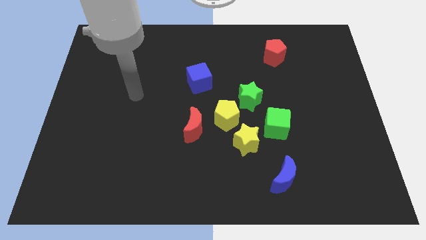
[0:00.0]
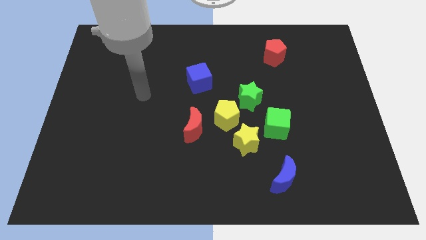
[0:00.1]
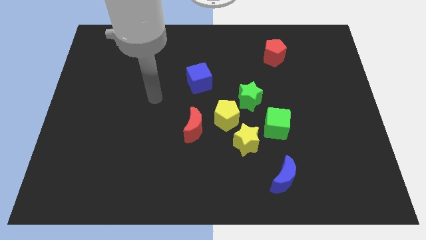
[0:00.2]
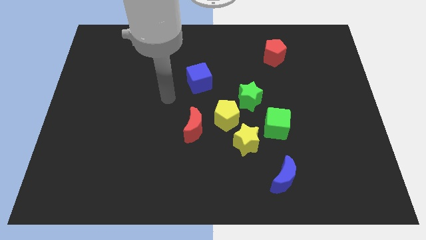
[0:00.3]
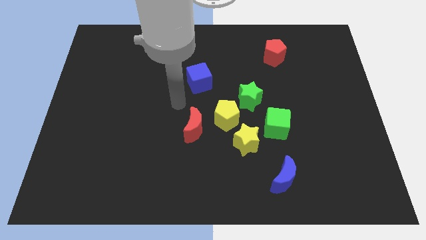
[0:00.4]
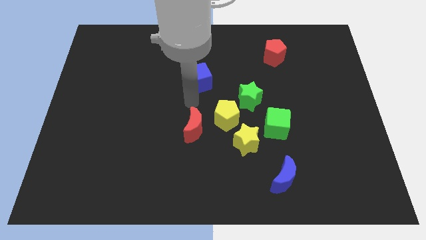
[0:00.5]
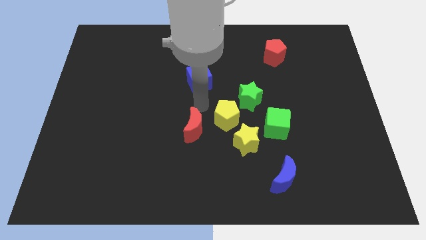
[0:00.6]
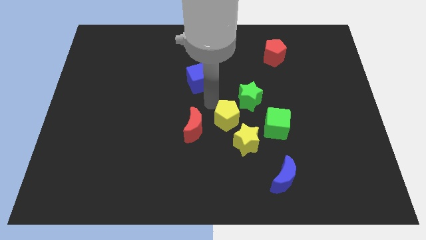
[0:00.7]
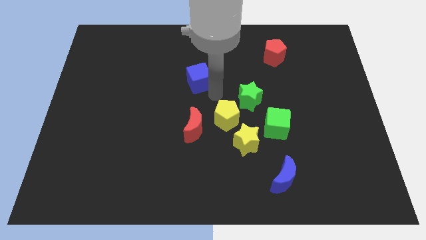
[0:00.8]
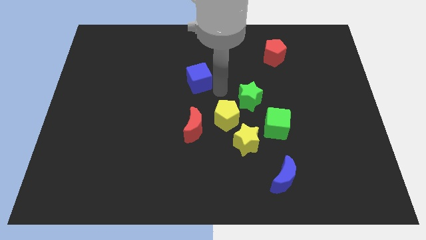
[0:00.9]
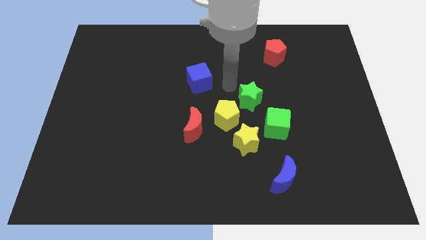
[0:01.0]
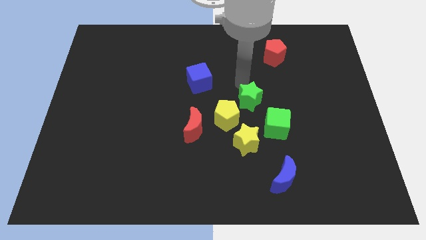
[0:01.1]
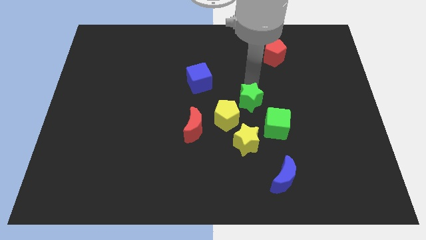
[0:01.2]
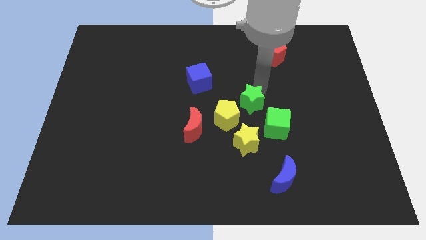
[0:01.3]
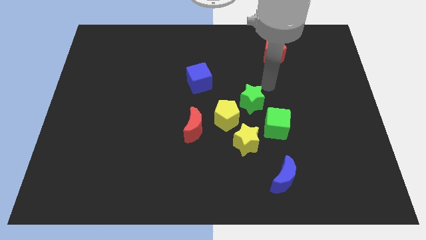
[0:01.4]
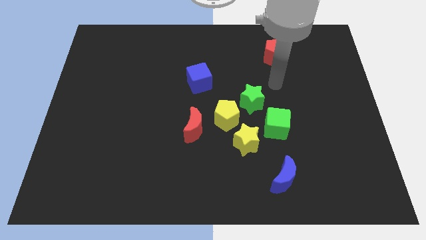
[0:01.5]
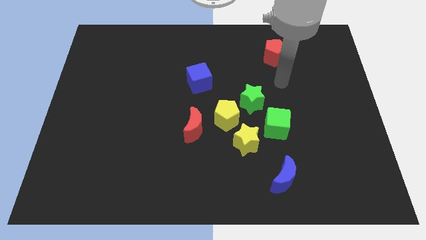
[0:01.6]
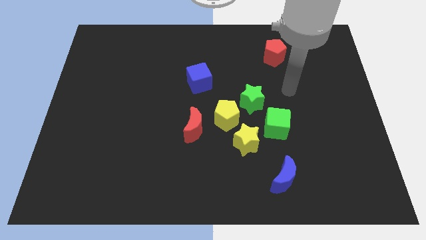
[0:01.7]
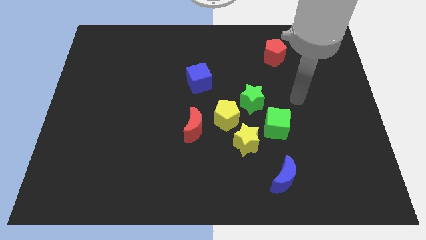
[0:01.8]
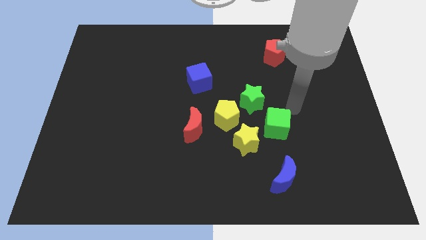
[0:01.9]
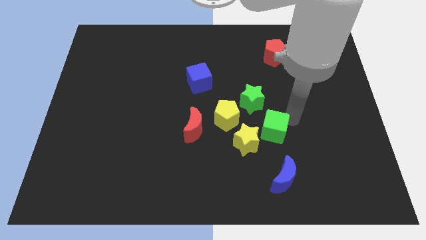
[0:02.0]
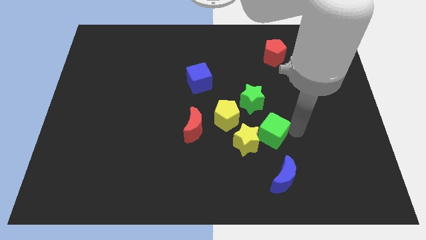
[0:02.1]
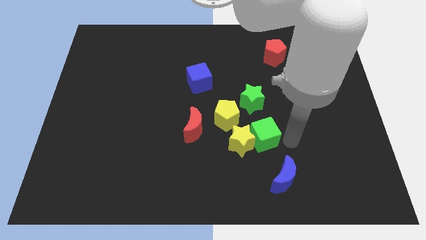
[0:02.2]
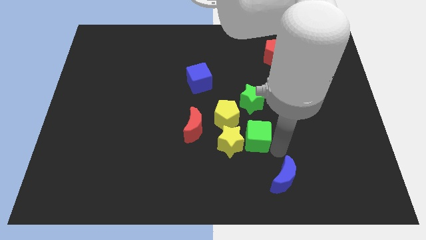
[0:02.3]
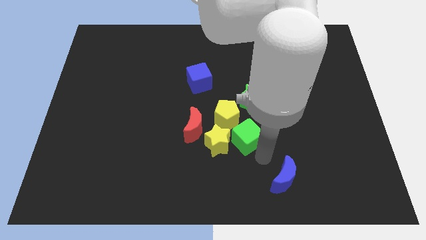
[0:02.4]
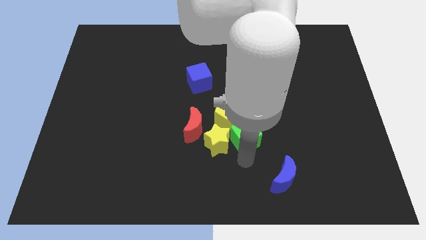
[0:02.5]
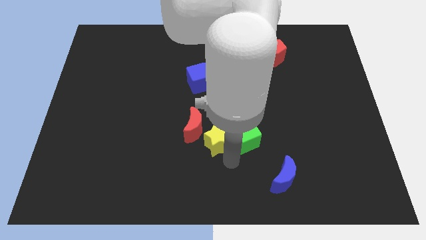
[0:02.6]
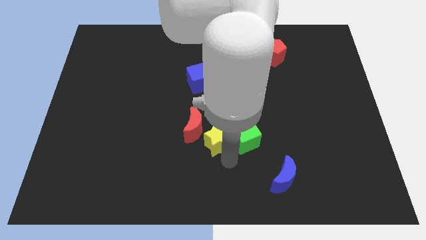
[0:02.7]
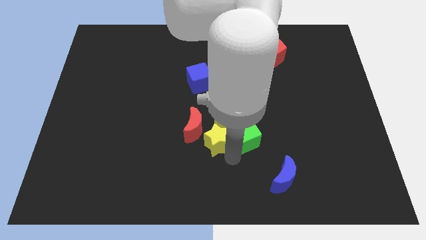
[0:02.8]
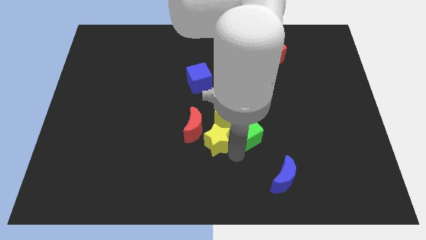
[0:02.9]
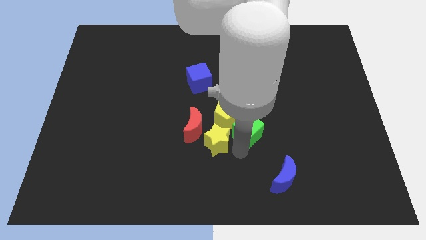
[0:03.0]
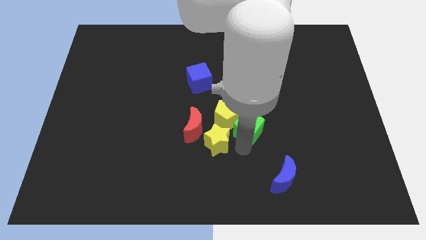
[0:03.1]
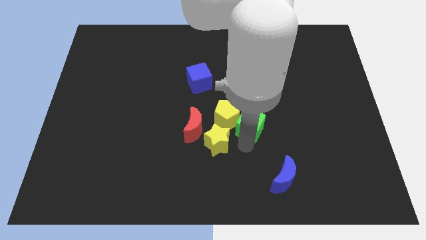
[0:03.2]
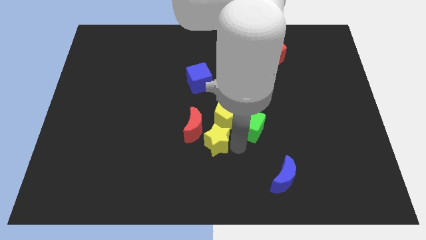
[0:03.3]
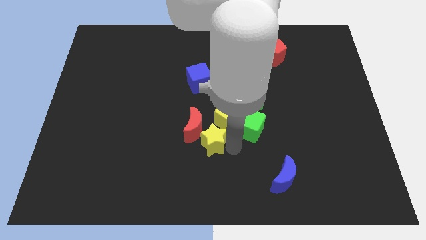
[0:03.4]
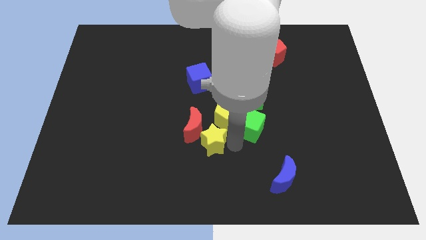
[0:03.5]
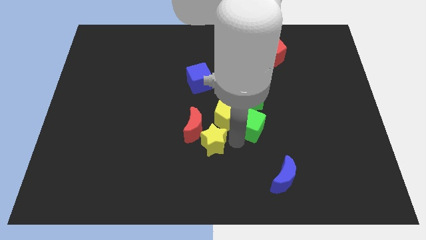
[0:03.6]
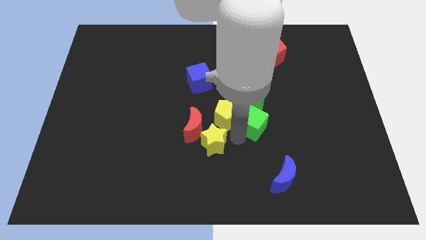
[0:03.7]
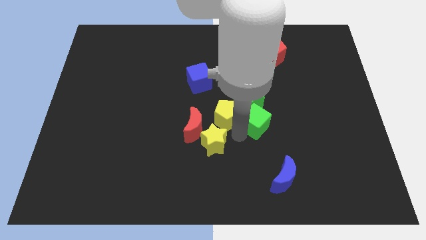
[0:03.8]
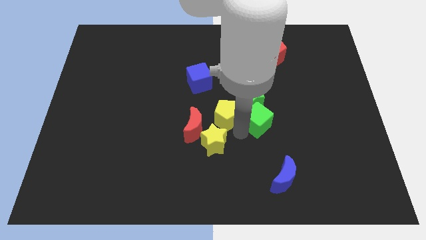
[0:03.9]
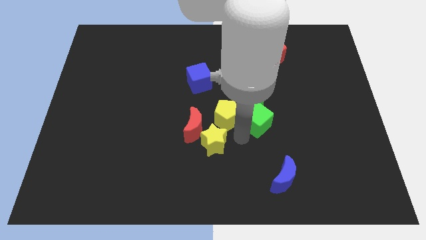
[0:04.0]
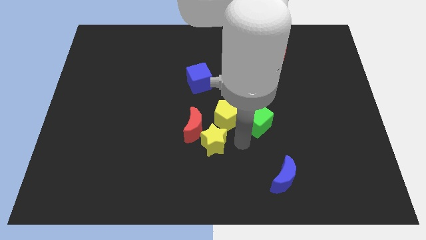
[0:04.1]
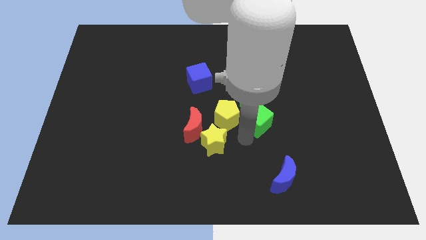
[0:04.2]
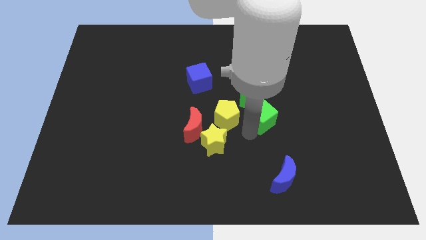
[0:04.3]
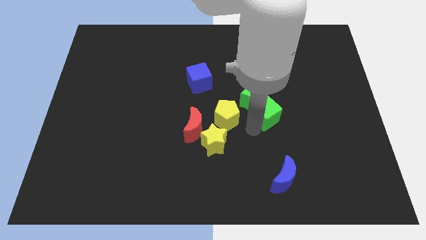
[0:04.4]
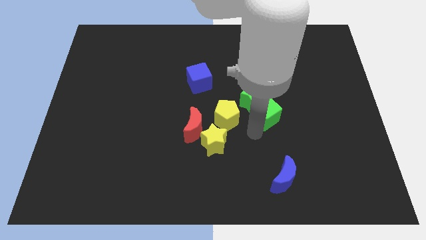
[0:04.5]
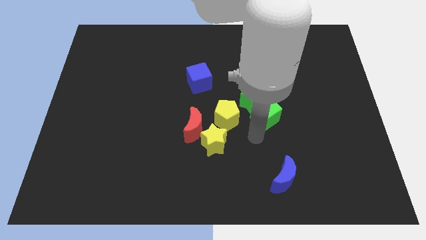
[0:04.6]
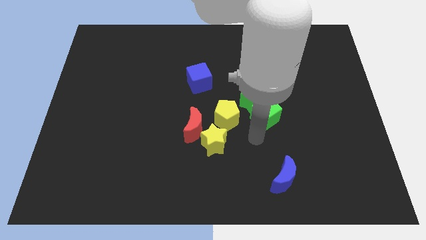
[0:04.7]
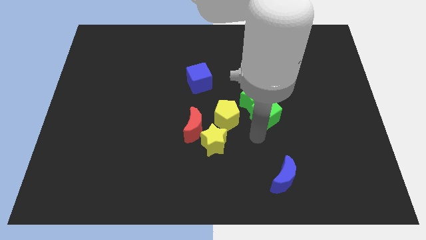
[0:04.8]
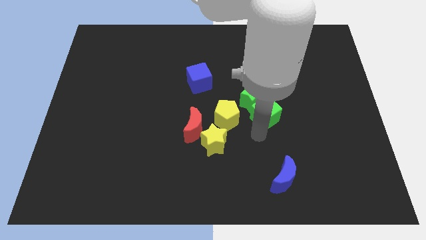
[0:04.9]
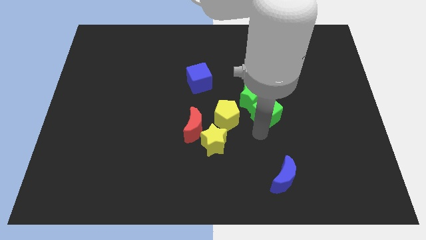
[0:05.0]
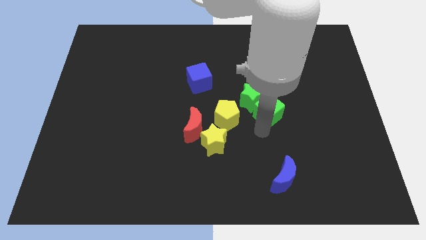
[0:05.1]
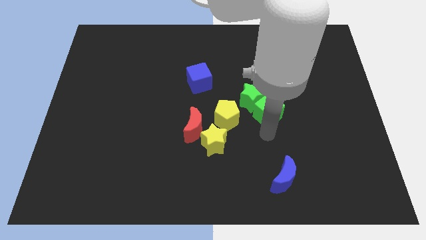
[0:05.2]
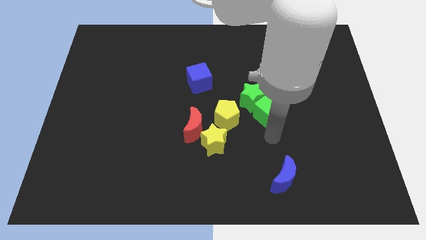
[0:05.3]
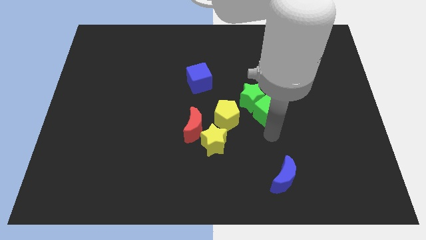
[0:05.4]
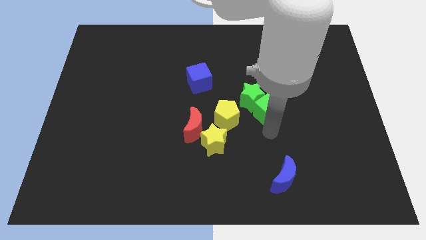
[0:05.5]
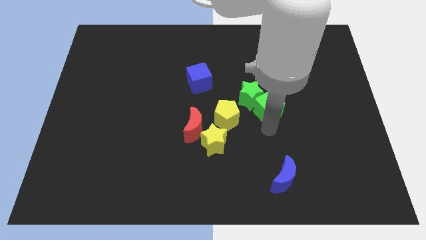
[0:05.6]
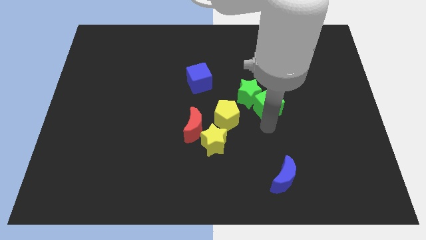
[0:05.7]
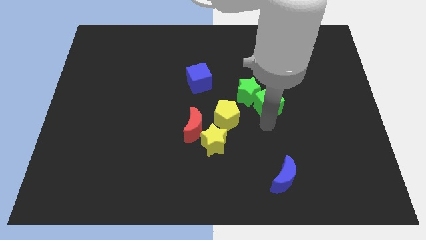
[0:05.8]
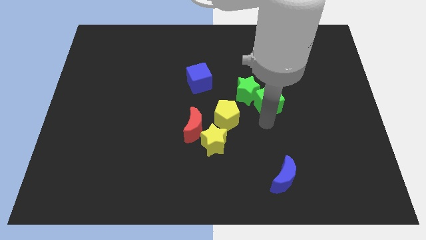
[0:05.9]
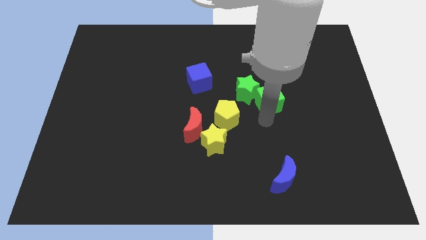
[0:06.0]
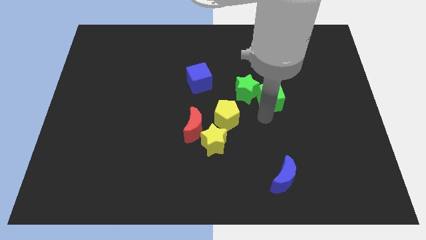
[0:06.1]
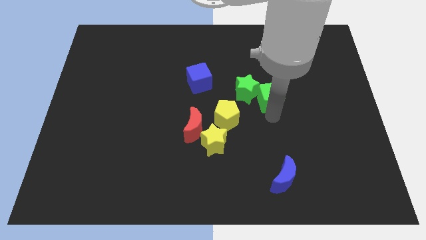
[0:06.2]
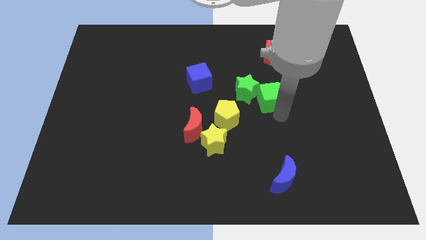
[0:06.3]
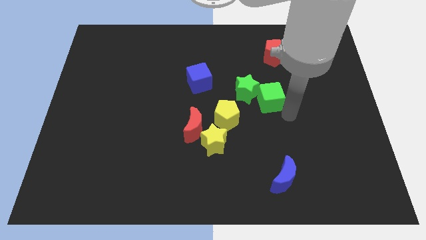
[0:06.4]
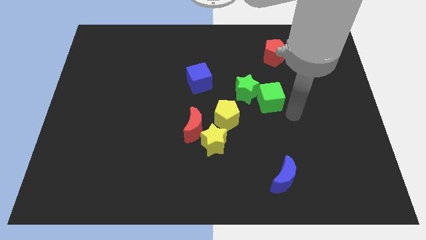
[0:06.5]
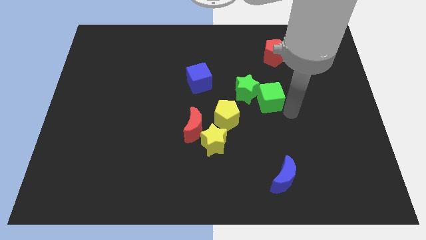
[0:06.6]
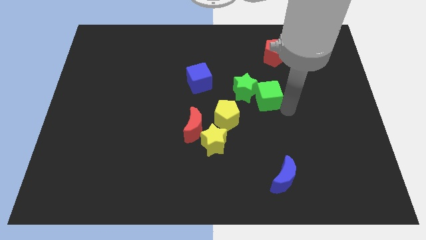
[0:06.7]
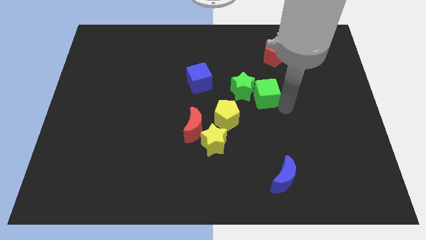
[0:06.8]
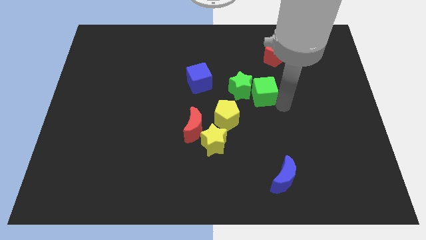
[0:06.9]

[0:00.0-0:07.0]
slide the green cube a bit upwards and then left

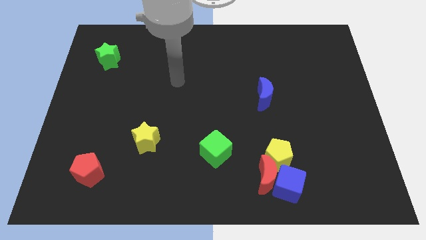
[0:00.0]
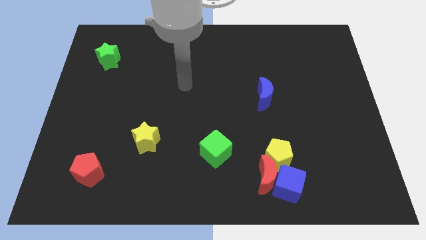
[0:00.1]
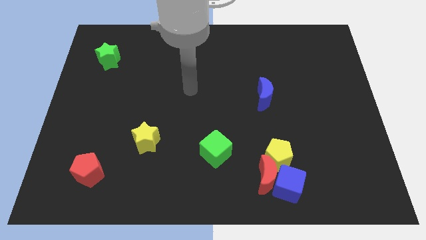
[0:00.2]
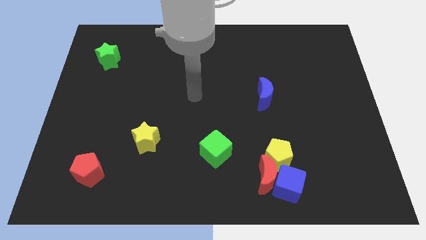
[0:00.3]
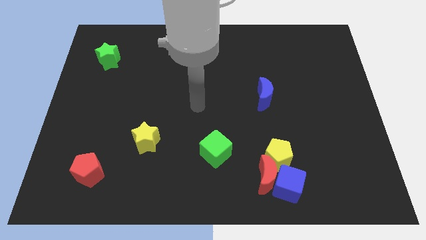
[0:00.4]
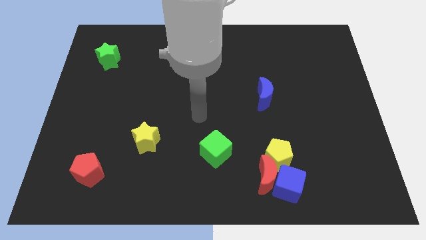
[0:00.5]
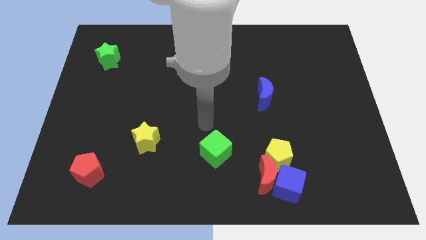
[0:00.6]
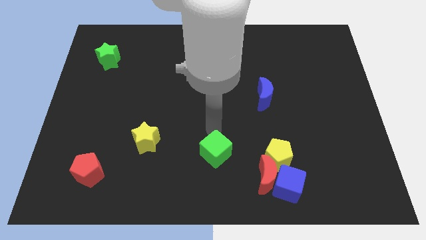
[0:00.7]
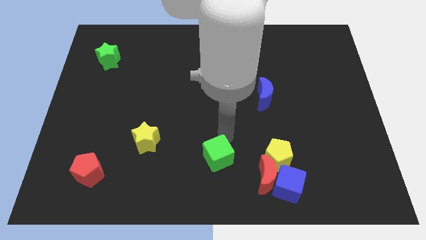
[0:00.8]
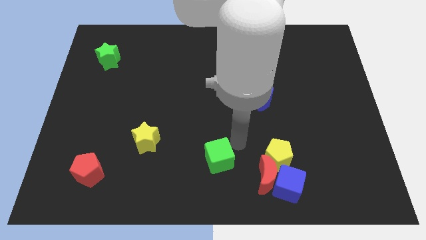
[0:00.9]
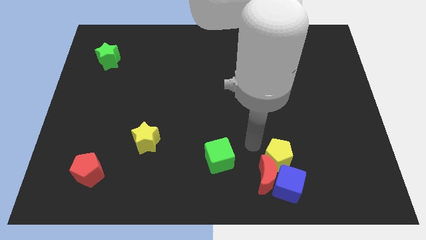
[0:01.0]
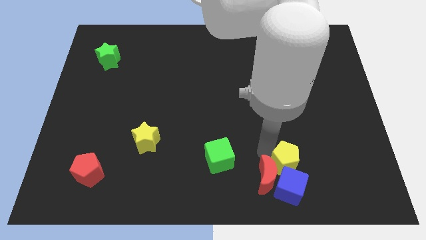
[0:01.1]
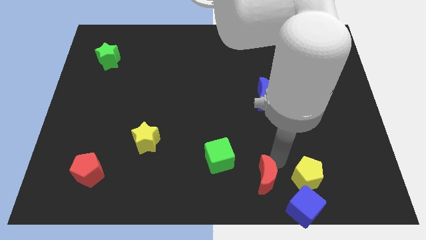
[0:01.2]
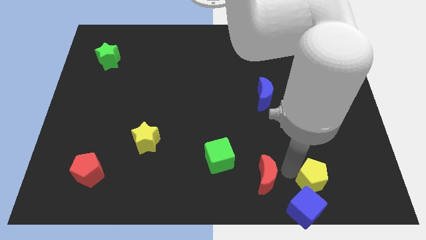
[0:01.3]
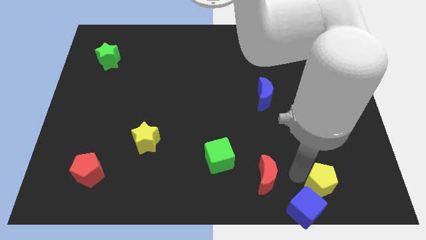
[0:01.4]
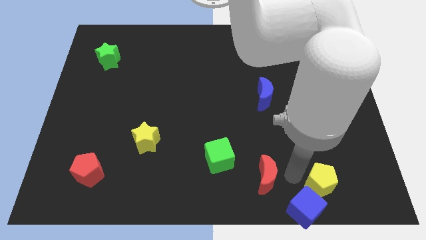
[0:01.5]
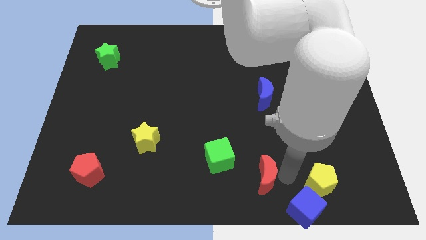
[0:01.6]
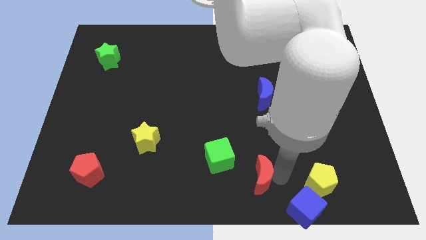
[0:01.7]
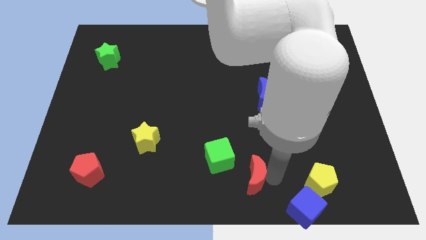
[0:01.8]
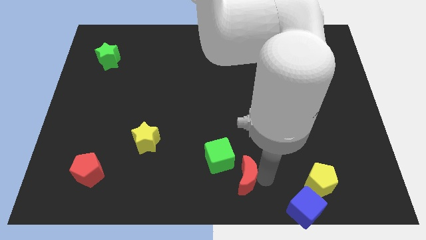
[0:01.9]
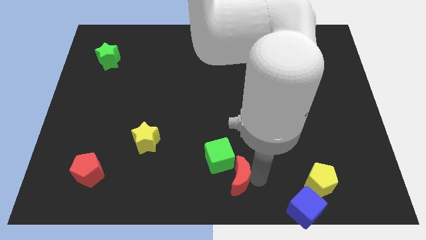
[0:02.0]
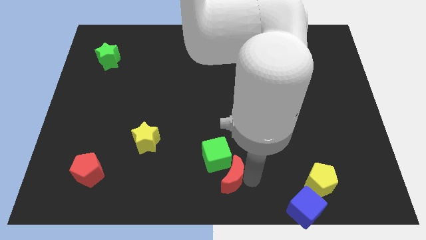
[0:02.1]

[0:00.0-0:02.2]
slide the red moon a little left
